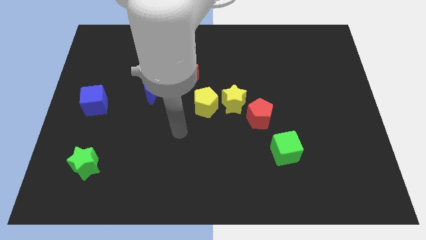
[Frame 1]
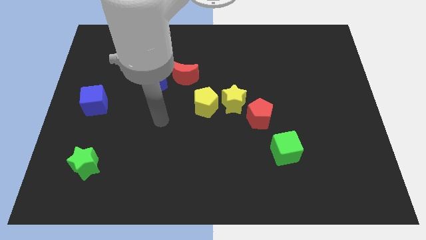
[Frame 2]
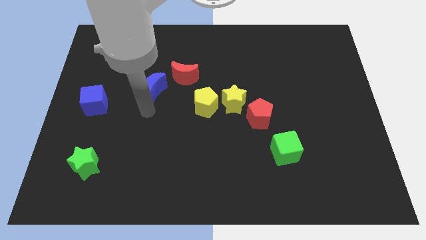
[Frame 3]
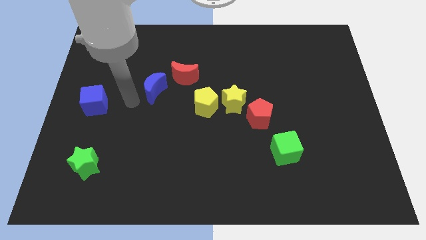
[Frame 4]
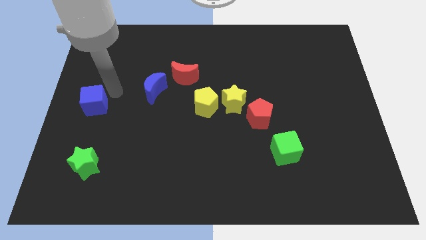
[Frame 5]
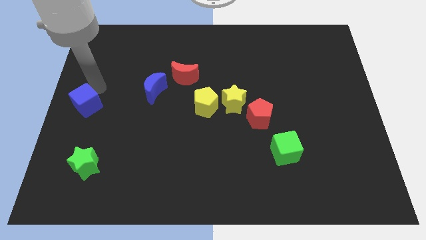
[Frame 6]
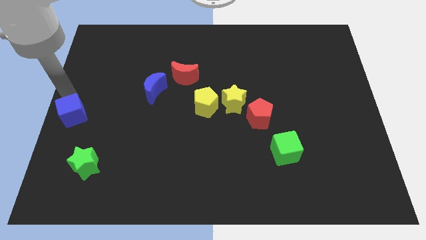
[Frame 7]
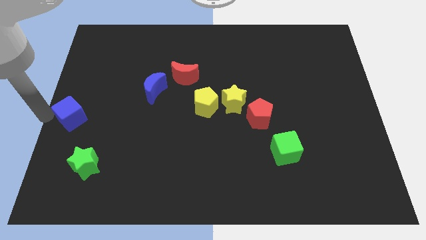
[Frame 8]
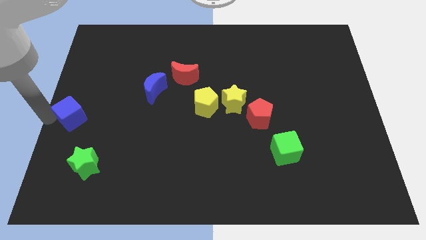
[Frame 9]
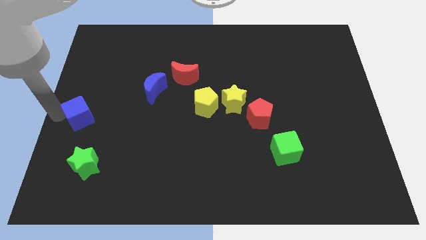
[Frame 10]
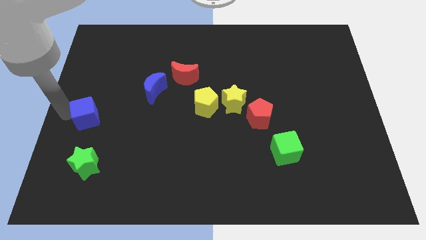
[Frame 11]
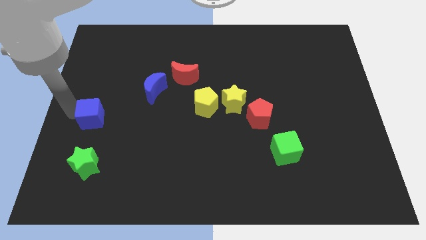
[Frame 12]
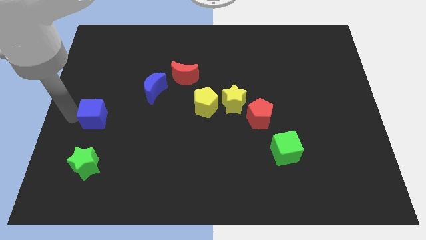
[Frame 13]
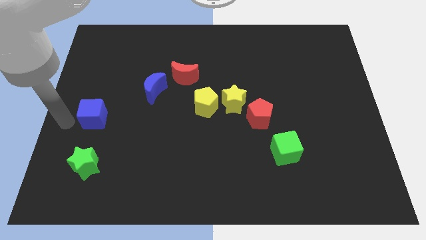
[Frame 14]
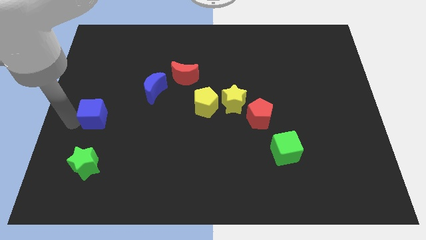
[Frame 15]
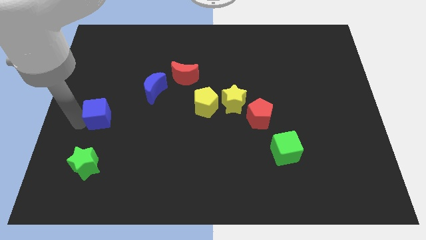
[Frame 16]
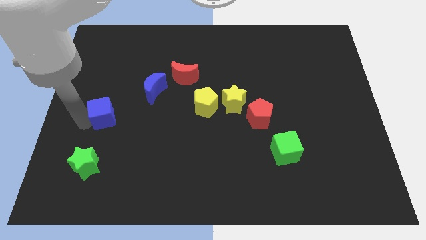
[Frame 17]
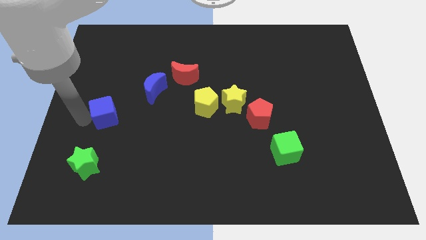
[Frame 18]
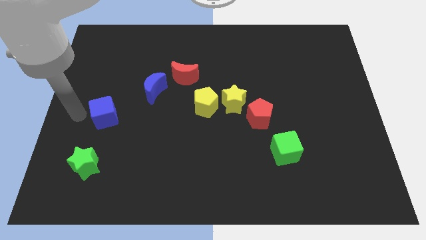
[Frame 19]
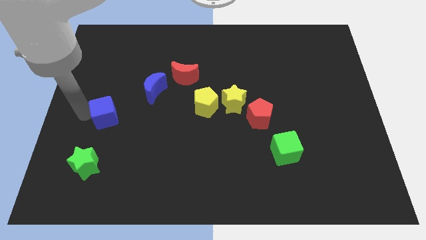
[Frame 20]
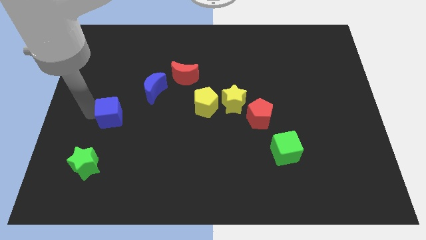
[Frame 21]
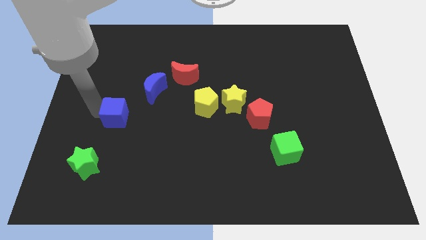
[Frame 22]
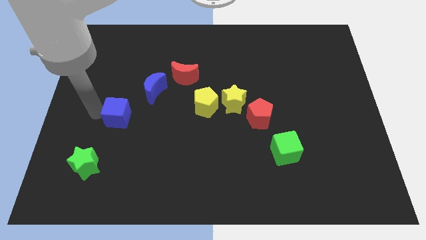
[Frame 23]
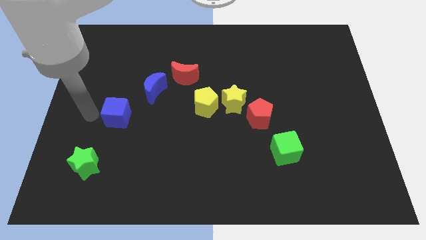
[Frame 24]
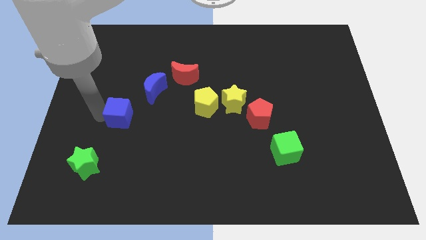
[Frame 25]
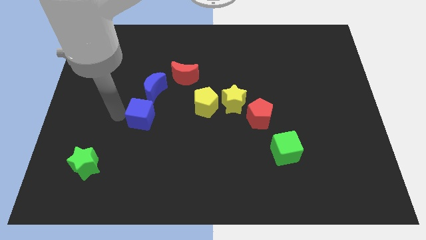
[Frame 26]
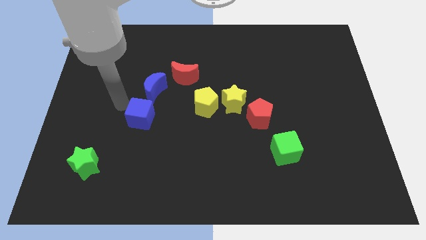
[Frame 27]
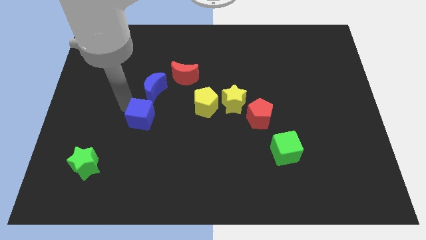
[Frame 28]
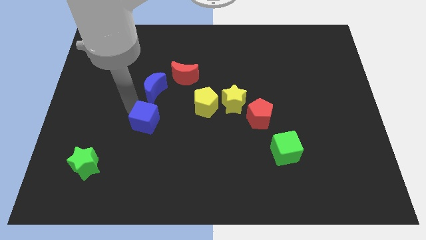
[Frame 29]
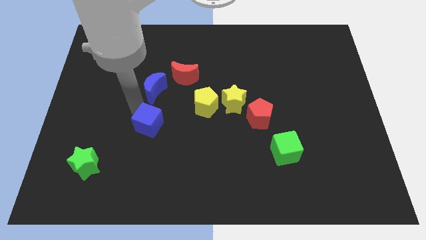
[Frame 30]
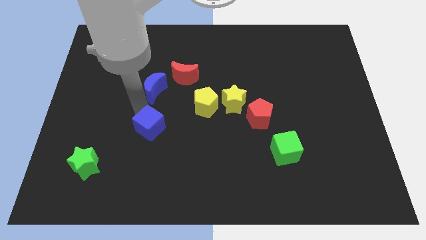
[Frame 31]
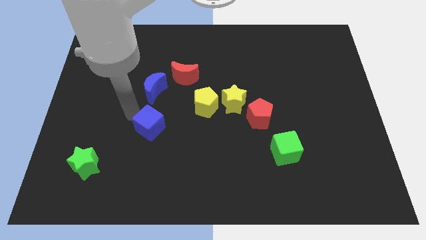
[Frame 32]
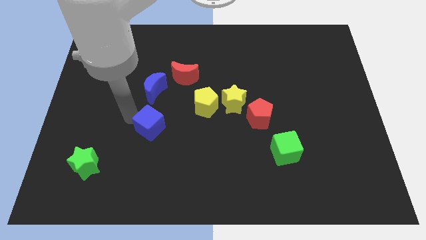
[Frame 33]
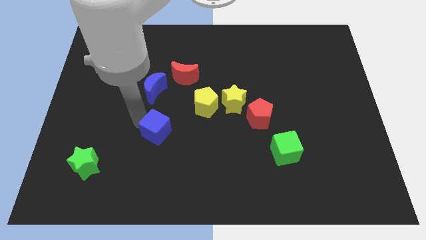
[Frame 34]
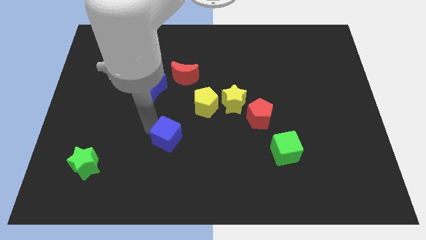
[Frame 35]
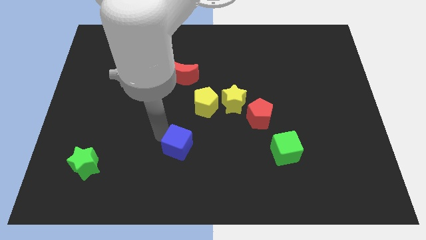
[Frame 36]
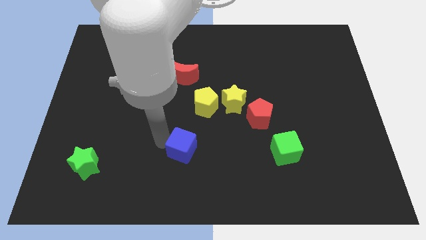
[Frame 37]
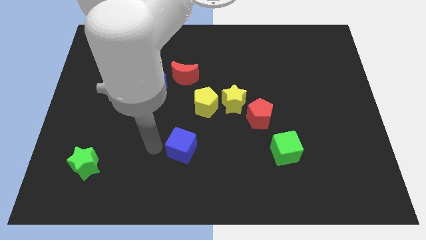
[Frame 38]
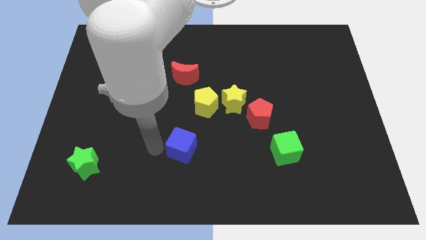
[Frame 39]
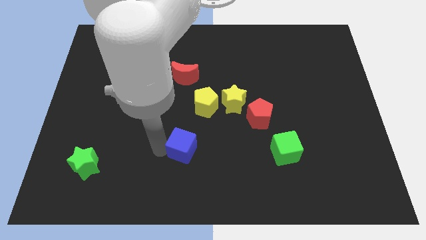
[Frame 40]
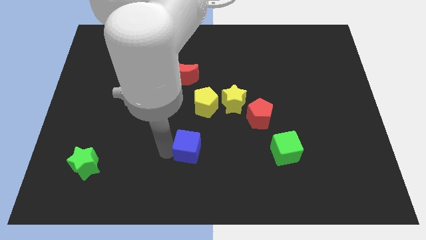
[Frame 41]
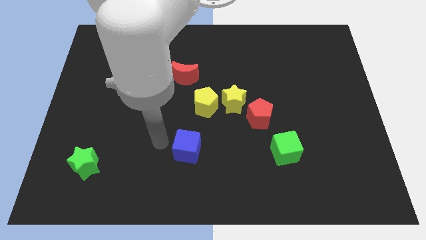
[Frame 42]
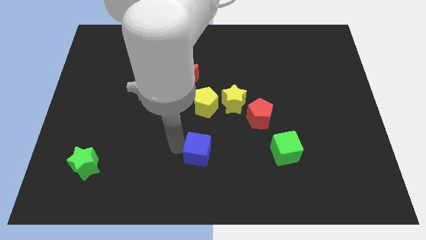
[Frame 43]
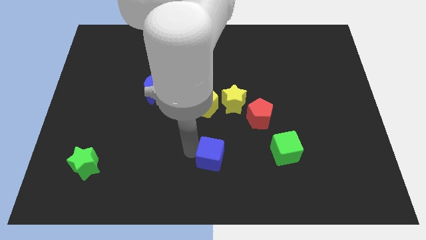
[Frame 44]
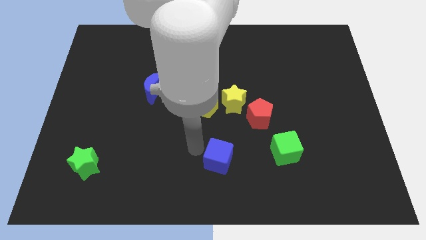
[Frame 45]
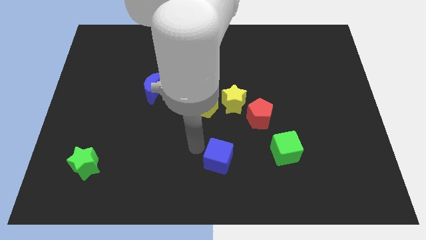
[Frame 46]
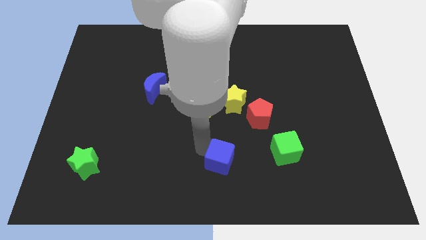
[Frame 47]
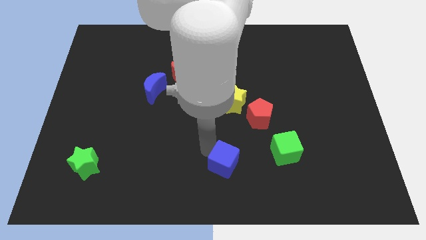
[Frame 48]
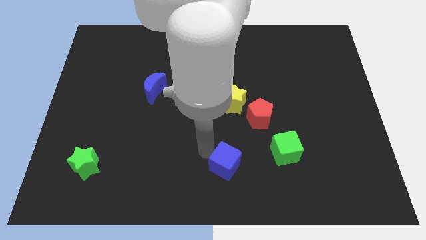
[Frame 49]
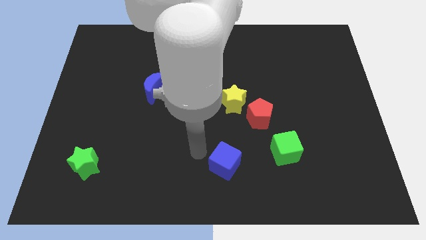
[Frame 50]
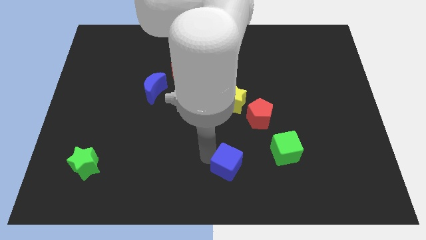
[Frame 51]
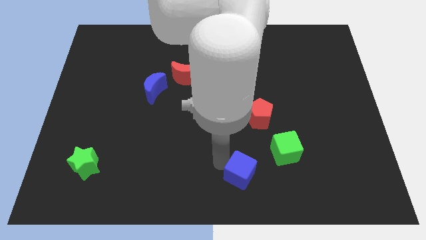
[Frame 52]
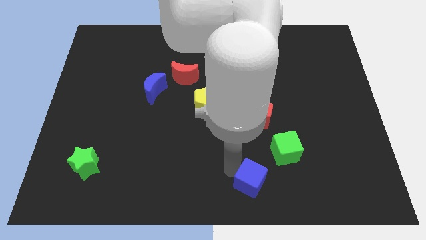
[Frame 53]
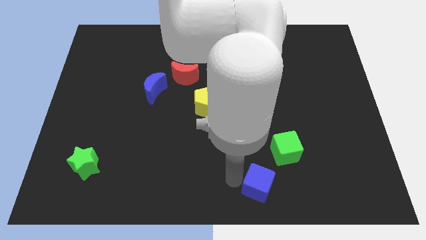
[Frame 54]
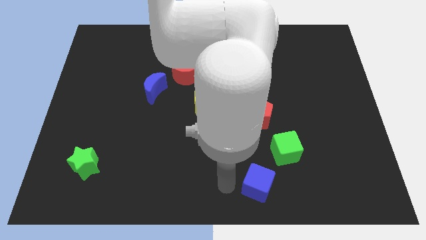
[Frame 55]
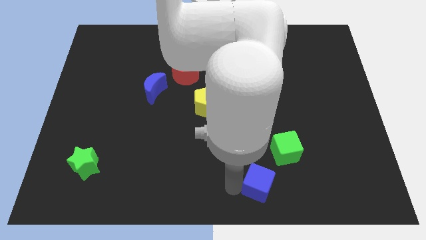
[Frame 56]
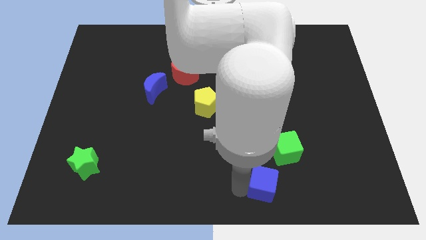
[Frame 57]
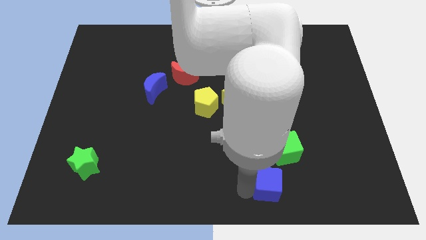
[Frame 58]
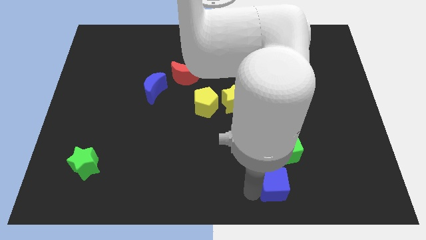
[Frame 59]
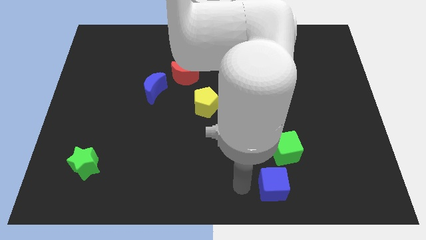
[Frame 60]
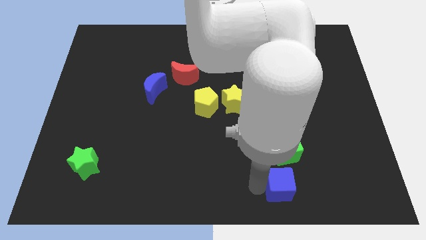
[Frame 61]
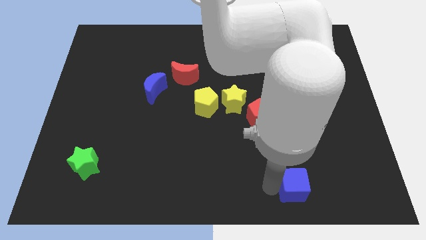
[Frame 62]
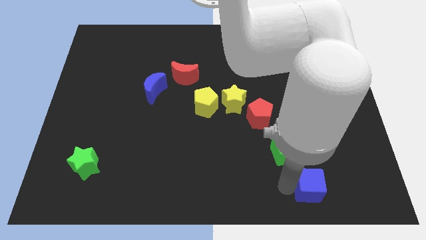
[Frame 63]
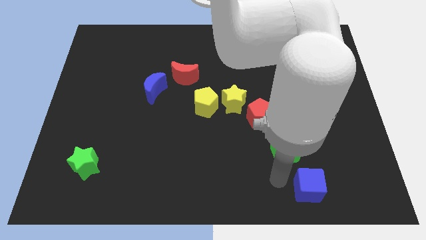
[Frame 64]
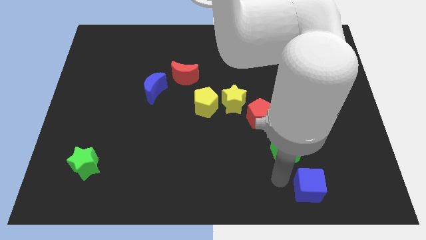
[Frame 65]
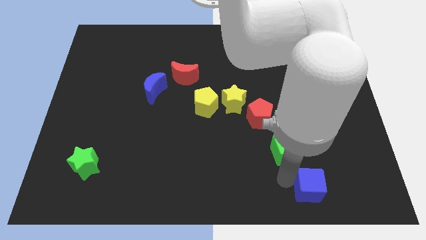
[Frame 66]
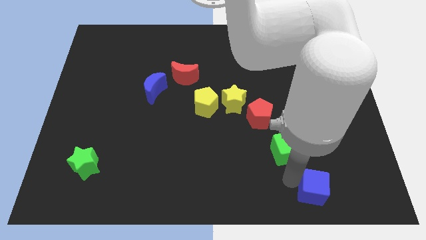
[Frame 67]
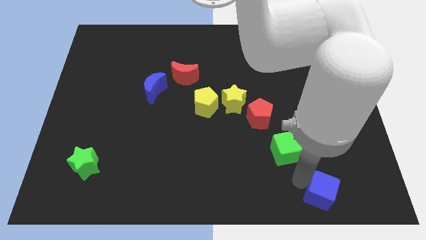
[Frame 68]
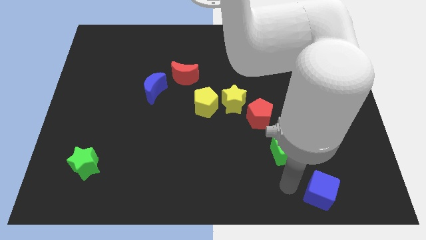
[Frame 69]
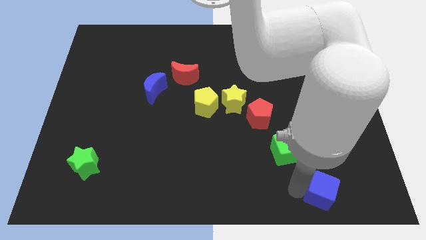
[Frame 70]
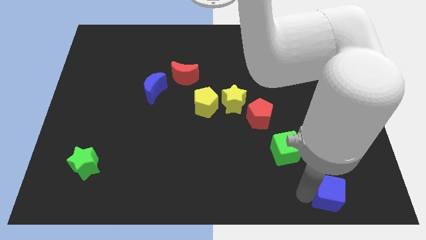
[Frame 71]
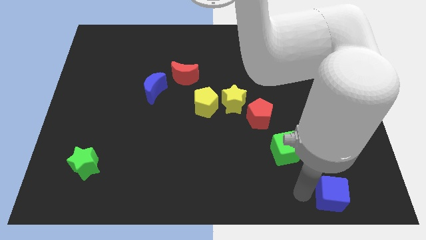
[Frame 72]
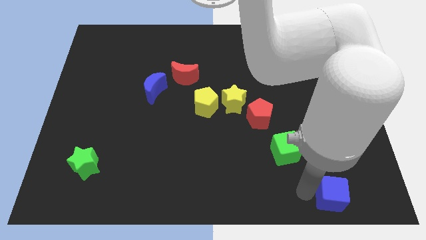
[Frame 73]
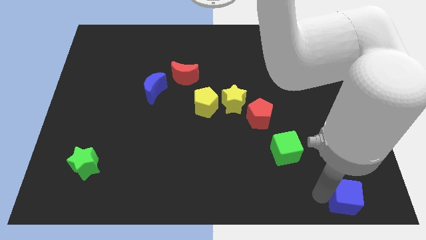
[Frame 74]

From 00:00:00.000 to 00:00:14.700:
slide the blue cube to the bottom right corner
